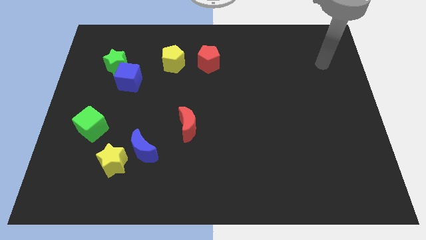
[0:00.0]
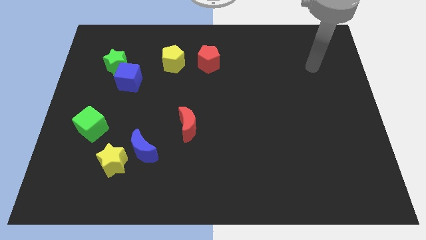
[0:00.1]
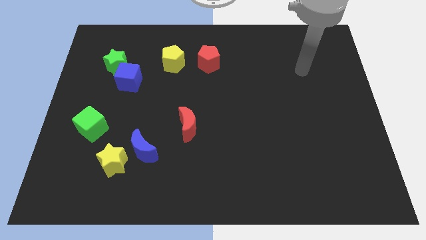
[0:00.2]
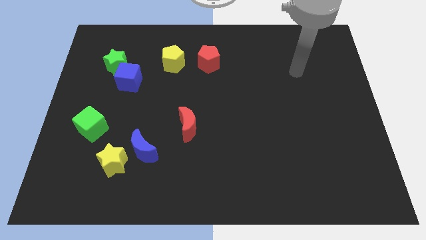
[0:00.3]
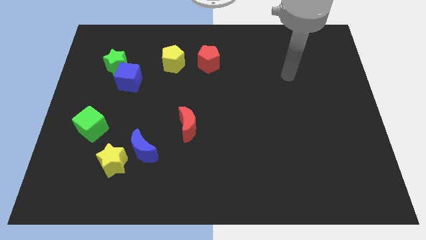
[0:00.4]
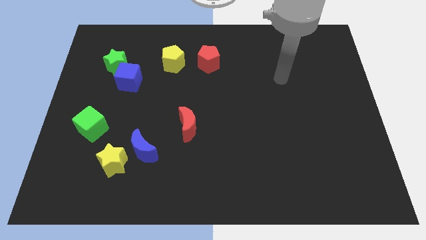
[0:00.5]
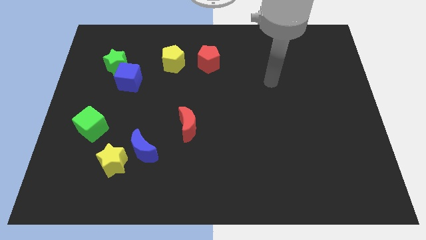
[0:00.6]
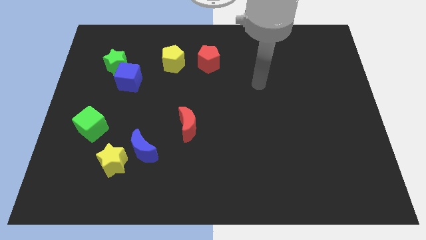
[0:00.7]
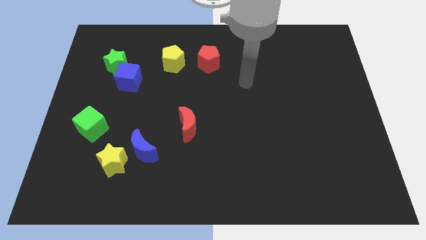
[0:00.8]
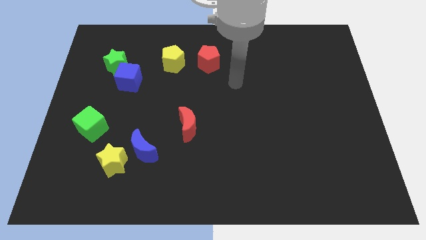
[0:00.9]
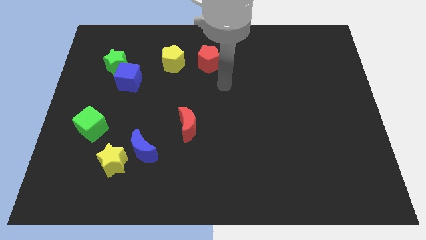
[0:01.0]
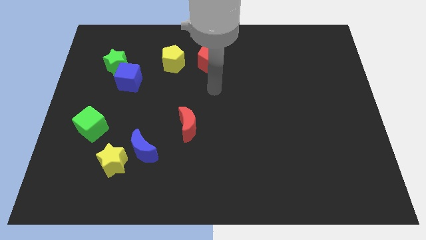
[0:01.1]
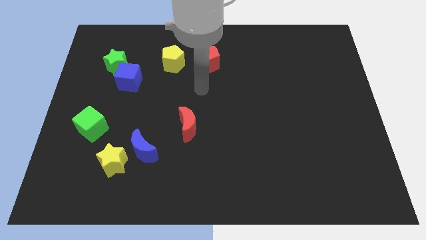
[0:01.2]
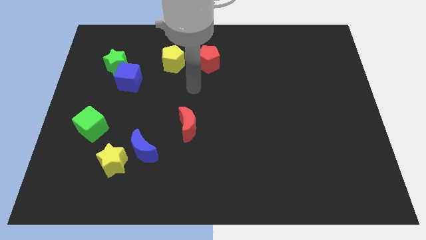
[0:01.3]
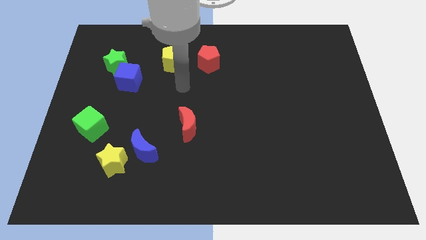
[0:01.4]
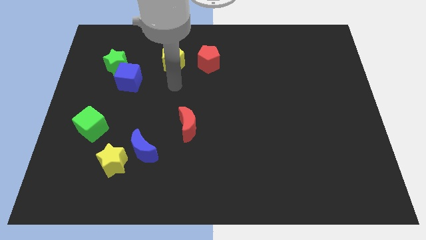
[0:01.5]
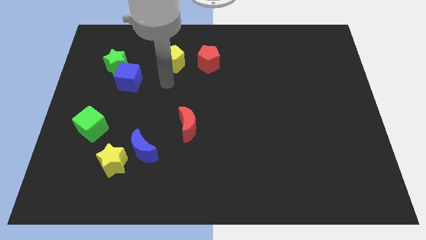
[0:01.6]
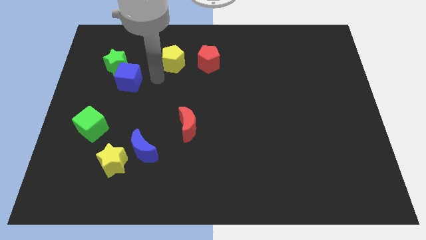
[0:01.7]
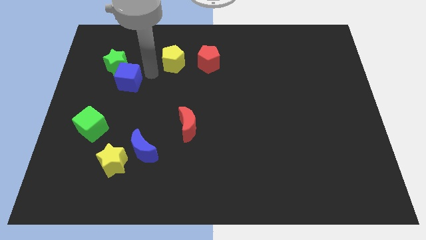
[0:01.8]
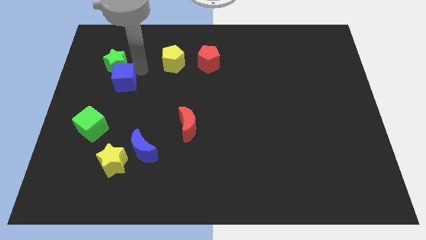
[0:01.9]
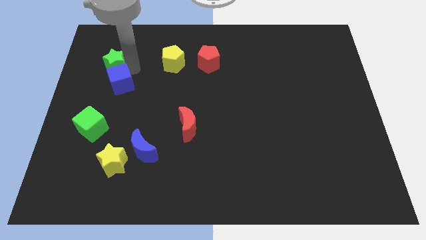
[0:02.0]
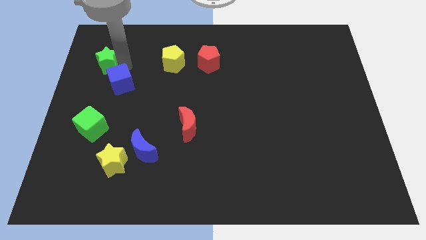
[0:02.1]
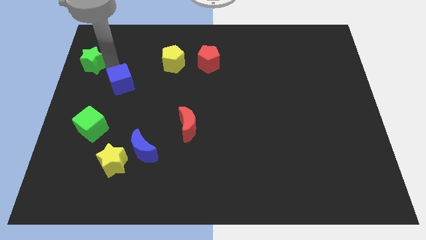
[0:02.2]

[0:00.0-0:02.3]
separate the blue cube from the green star

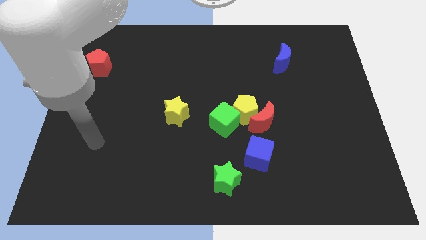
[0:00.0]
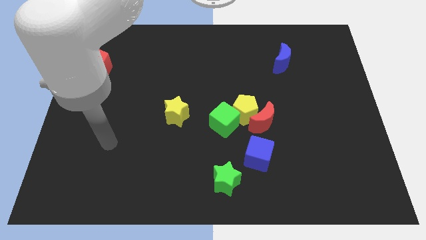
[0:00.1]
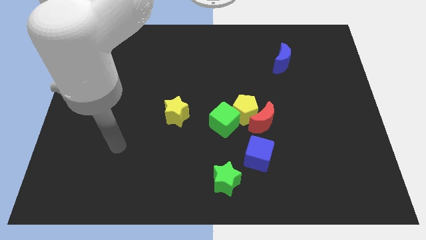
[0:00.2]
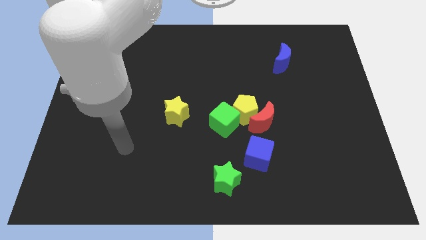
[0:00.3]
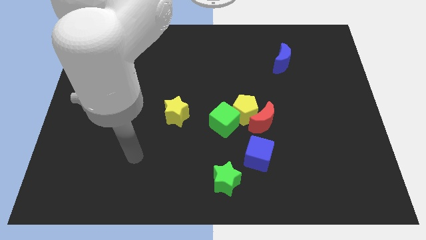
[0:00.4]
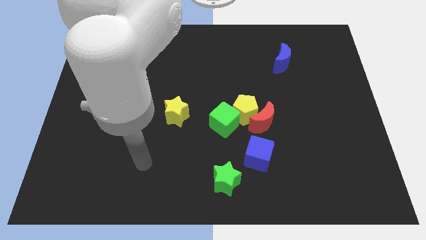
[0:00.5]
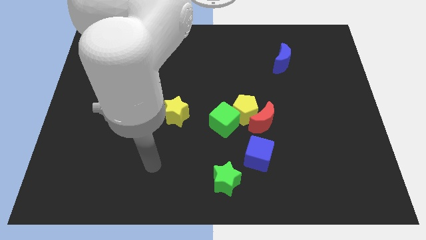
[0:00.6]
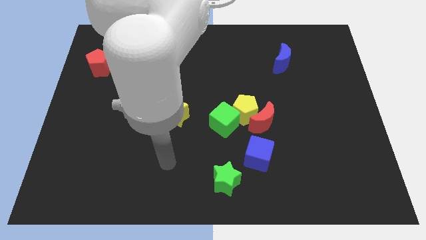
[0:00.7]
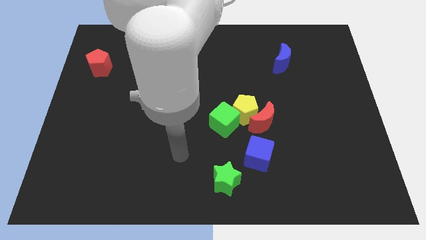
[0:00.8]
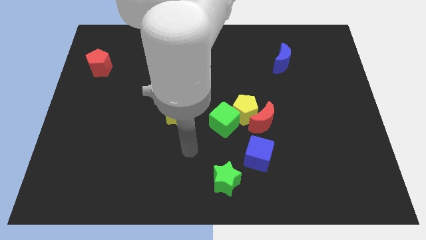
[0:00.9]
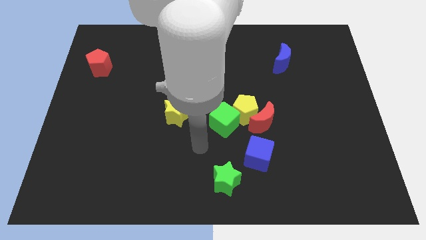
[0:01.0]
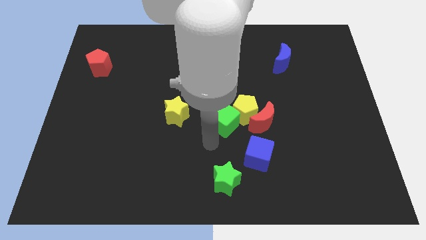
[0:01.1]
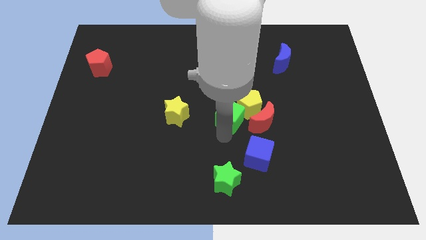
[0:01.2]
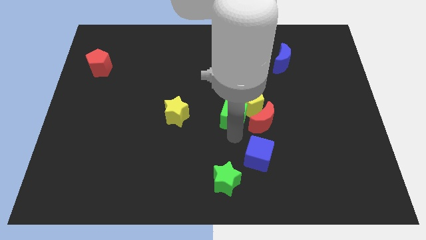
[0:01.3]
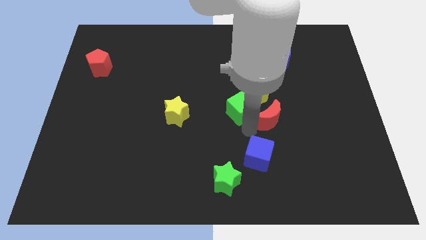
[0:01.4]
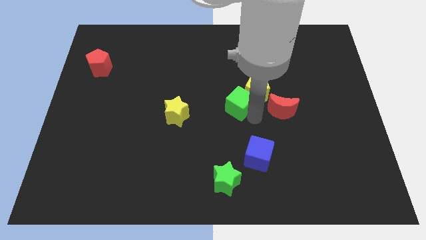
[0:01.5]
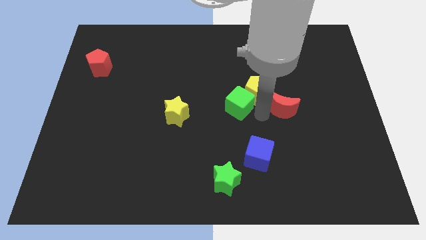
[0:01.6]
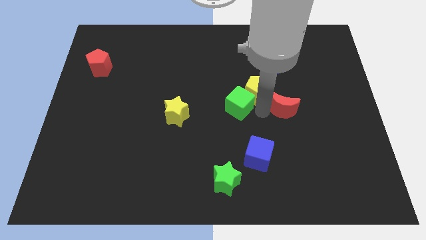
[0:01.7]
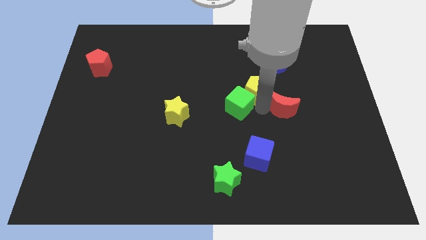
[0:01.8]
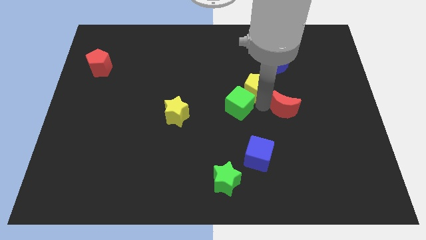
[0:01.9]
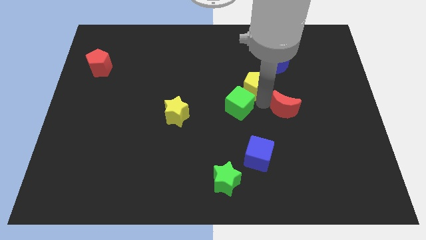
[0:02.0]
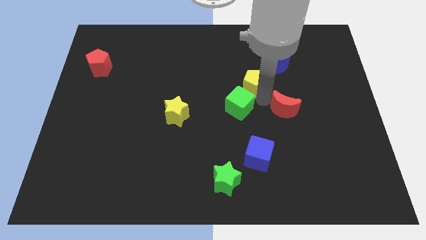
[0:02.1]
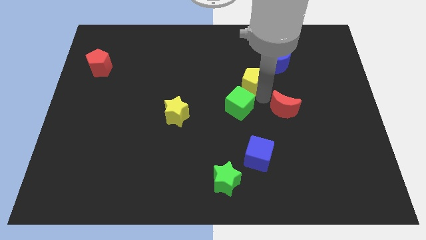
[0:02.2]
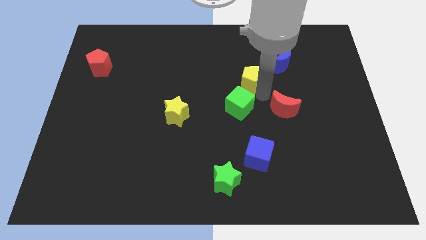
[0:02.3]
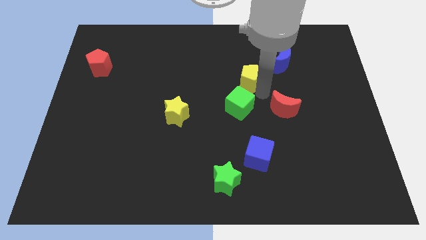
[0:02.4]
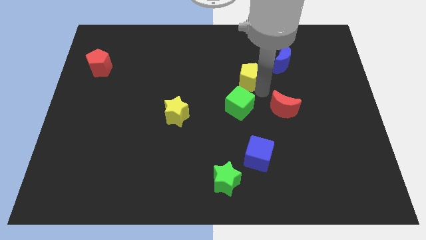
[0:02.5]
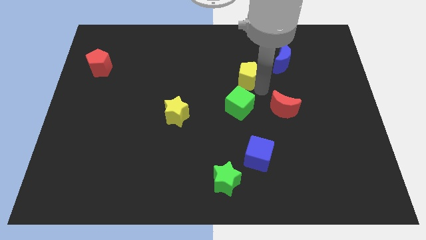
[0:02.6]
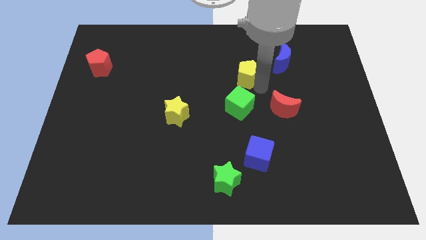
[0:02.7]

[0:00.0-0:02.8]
pull the yellow pentagon apart from the red moon and green cube

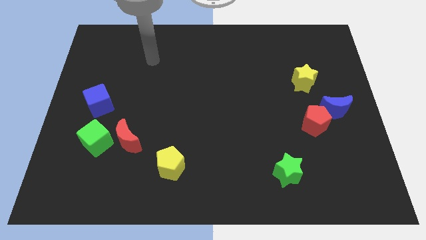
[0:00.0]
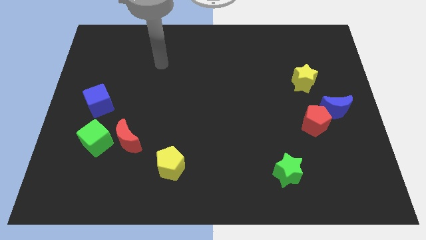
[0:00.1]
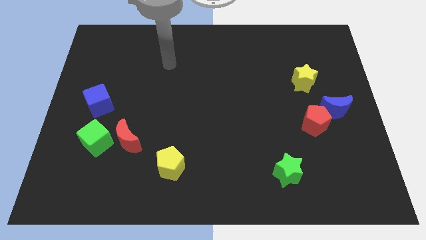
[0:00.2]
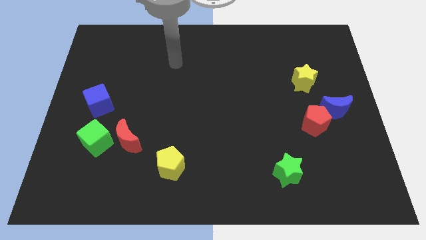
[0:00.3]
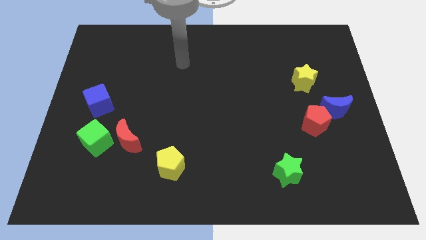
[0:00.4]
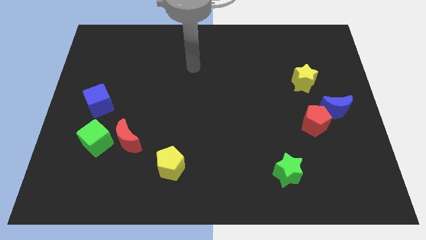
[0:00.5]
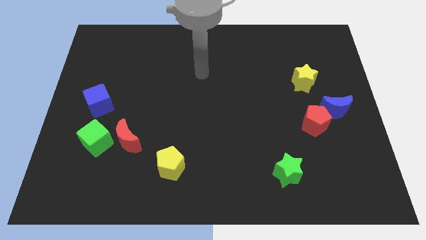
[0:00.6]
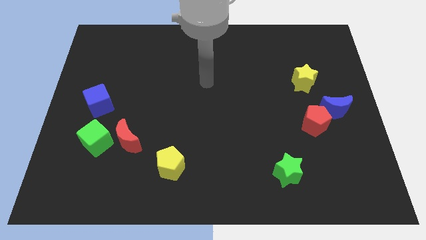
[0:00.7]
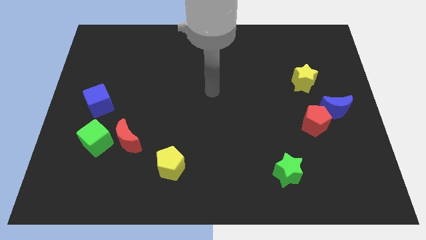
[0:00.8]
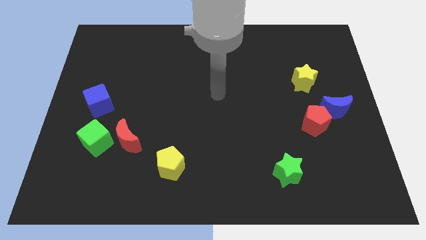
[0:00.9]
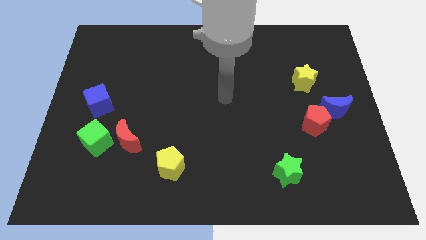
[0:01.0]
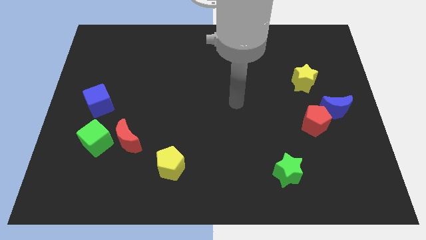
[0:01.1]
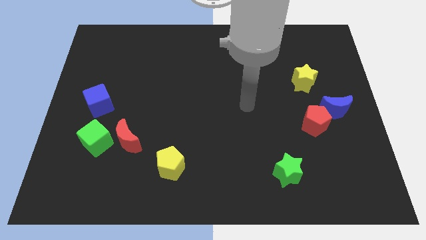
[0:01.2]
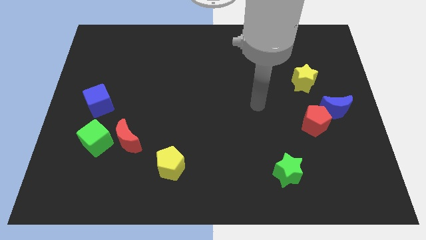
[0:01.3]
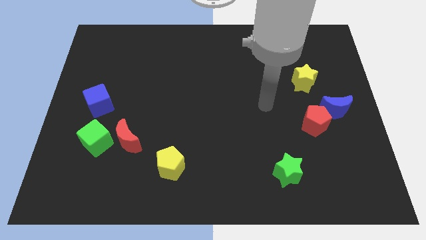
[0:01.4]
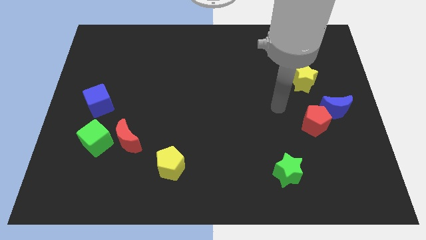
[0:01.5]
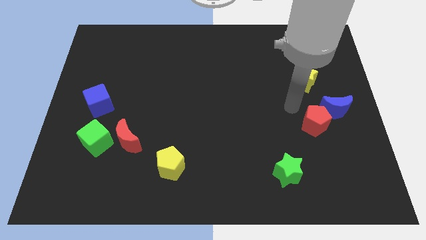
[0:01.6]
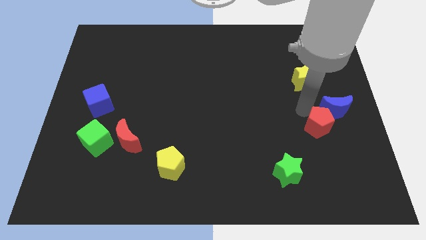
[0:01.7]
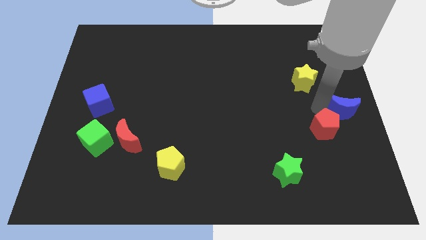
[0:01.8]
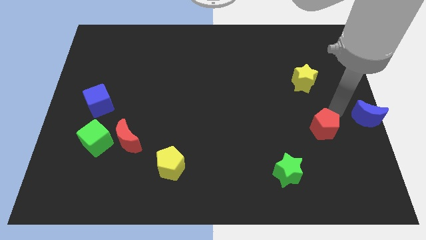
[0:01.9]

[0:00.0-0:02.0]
separate the red pentagon from the blue moon

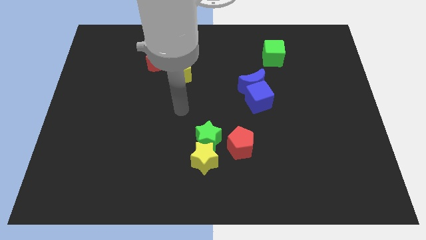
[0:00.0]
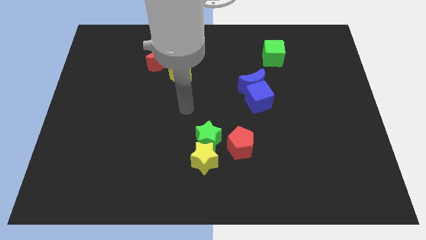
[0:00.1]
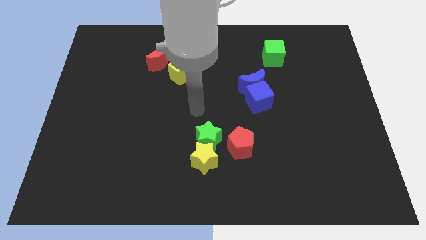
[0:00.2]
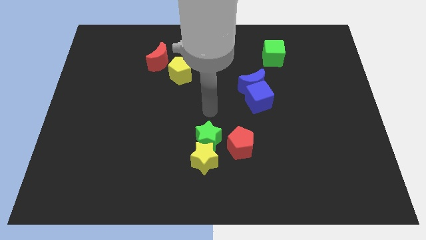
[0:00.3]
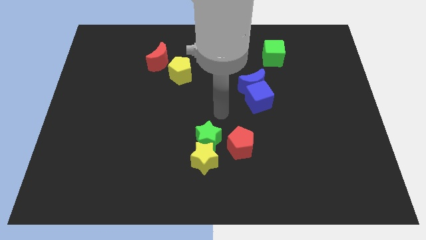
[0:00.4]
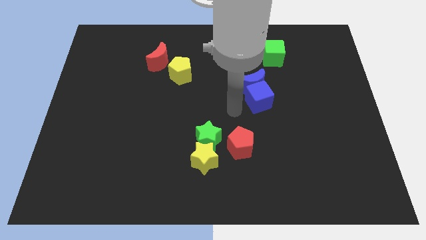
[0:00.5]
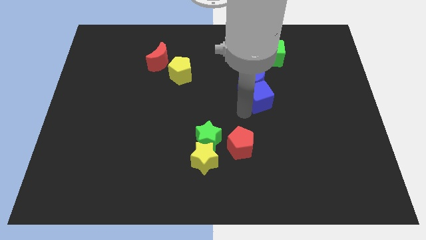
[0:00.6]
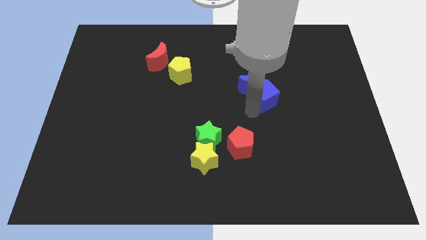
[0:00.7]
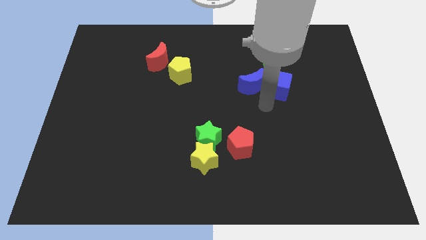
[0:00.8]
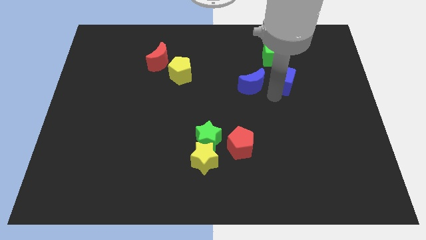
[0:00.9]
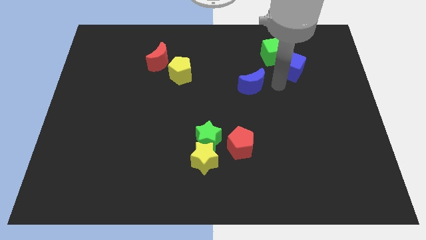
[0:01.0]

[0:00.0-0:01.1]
pull the blue moon apart from the blue cube

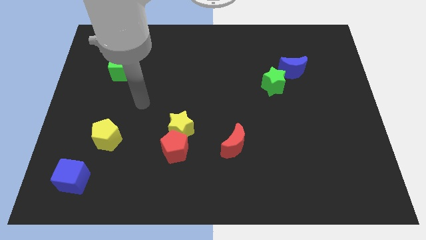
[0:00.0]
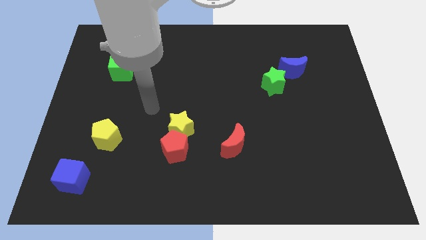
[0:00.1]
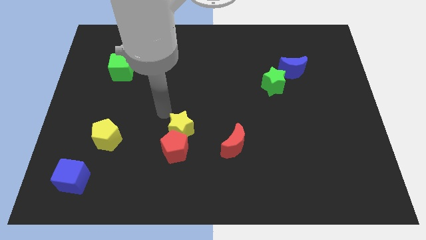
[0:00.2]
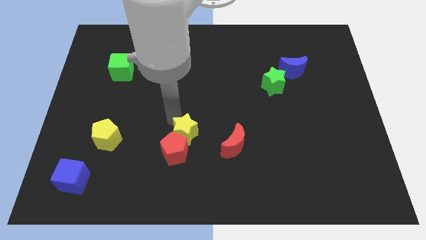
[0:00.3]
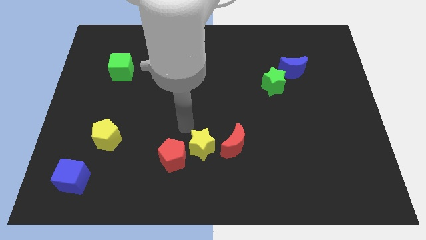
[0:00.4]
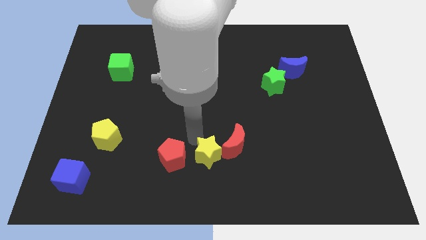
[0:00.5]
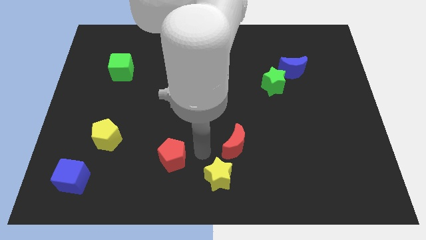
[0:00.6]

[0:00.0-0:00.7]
move the red pentagon away from the yellow star

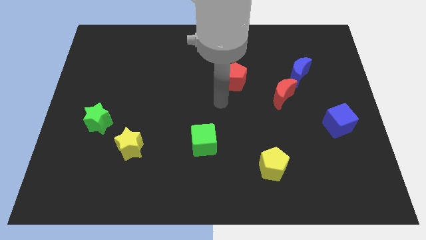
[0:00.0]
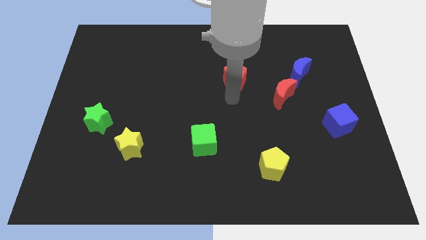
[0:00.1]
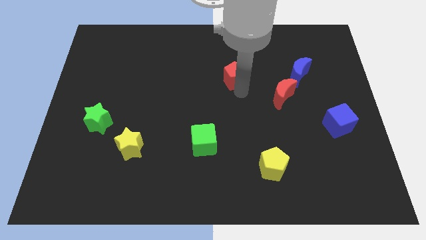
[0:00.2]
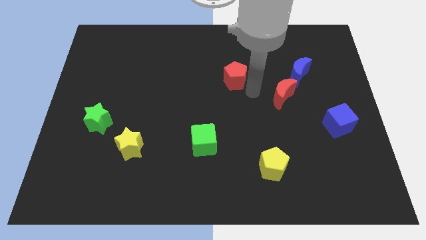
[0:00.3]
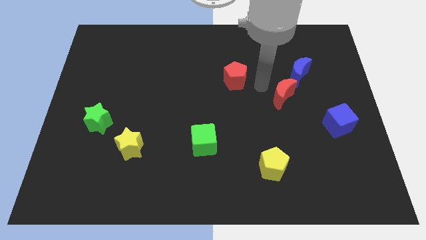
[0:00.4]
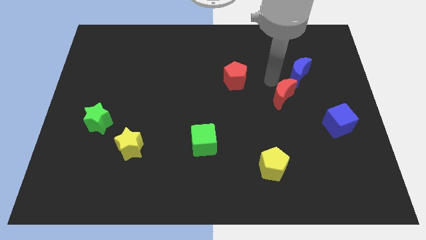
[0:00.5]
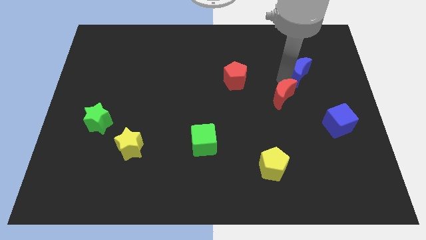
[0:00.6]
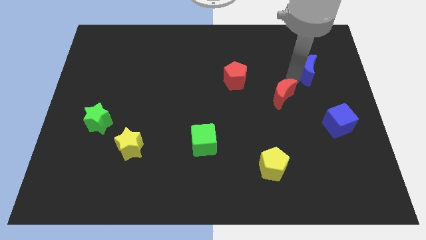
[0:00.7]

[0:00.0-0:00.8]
separate the red moon from the blue moon
